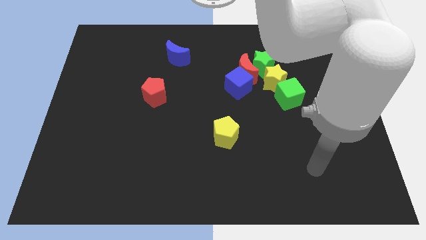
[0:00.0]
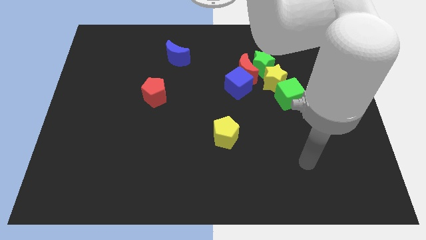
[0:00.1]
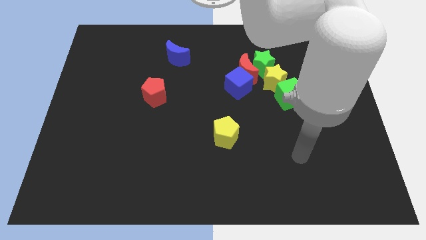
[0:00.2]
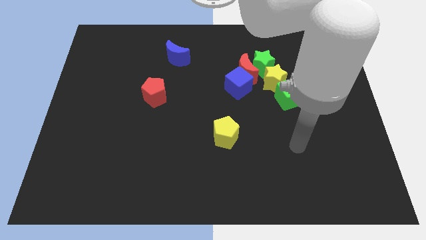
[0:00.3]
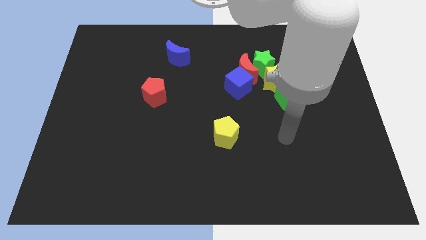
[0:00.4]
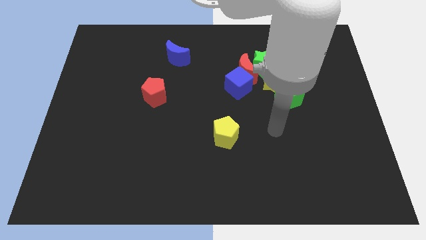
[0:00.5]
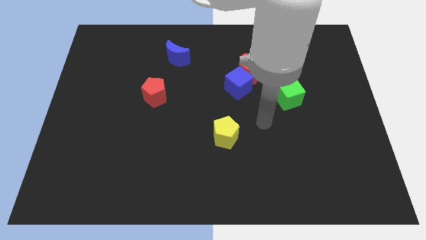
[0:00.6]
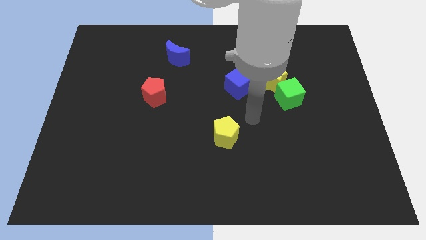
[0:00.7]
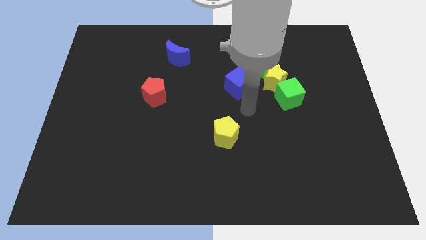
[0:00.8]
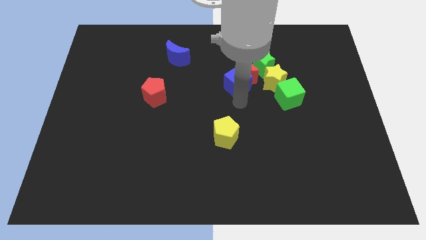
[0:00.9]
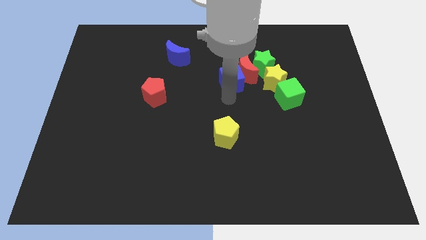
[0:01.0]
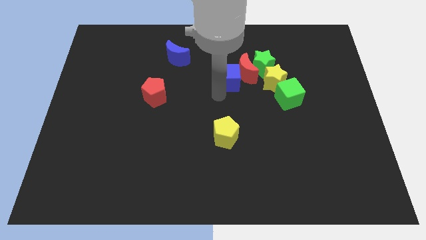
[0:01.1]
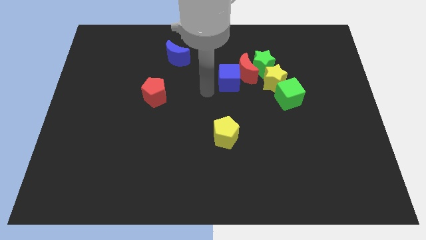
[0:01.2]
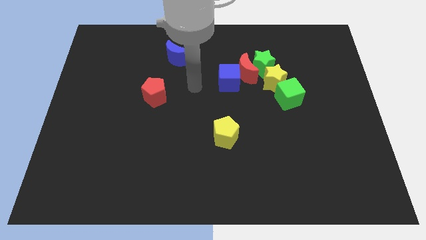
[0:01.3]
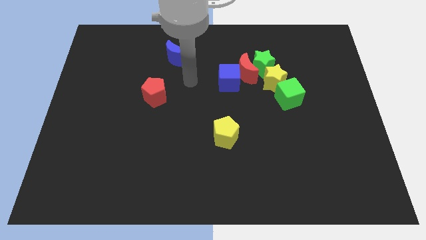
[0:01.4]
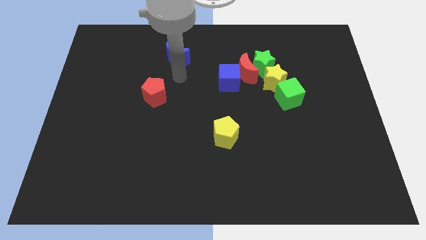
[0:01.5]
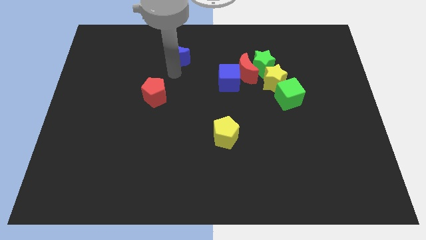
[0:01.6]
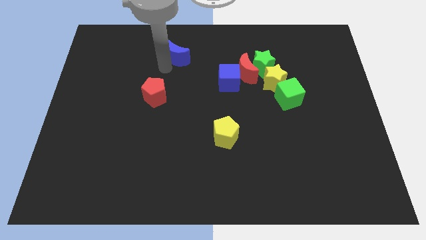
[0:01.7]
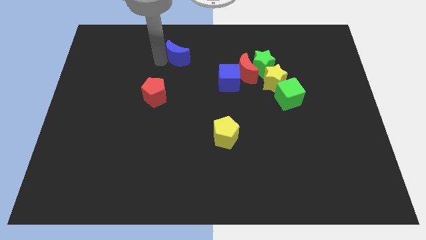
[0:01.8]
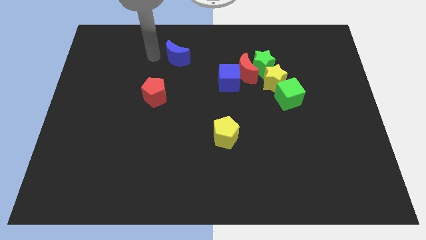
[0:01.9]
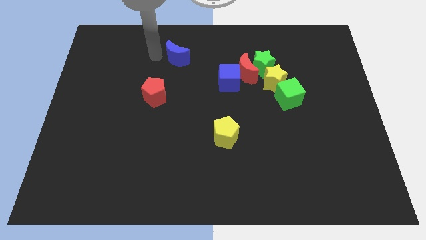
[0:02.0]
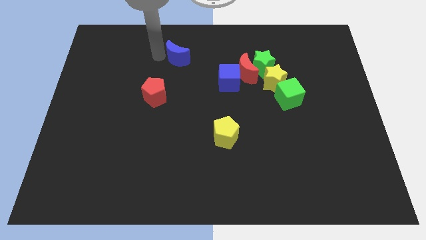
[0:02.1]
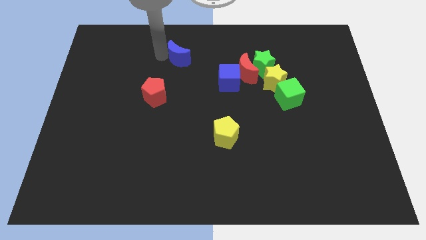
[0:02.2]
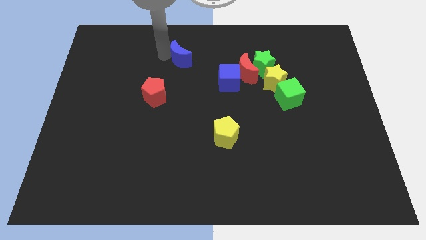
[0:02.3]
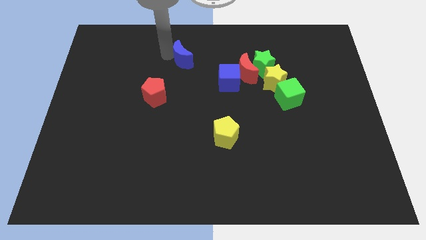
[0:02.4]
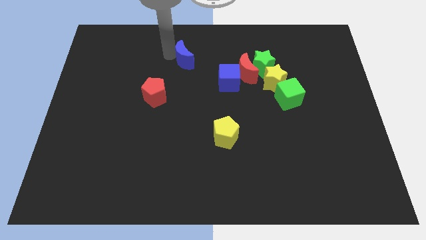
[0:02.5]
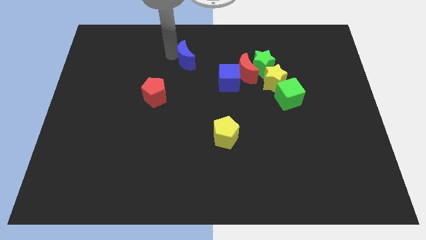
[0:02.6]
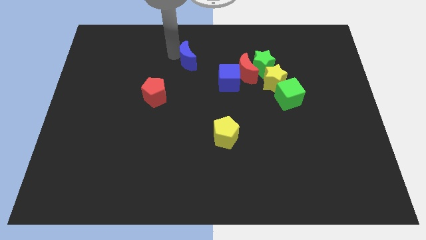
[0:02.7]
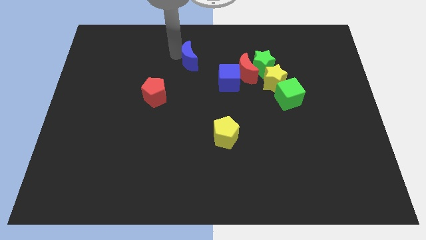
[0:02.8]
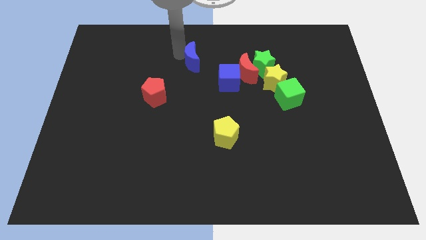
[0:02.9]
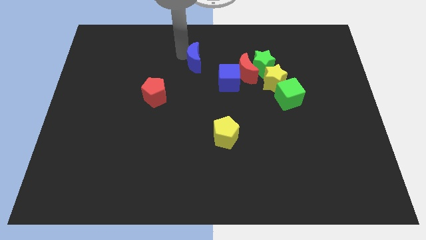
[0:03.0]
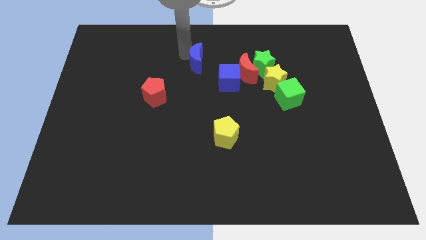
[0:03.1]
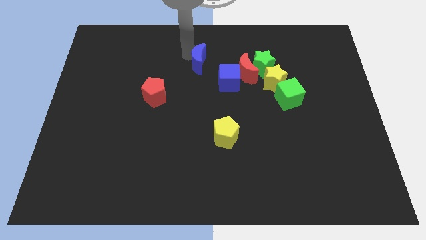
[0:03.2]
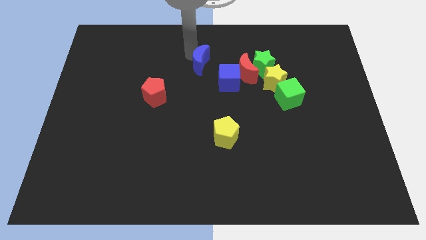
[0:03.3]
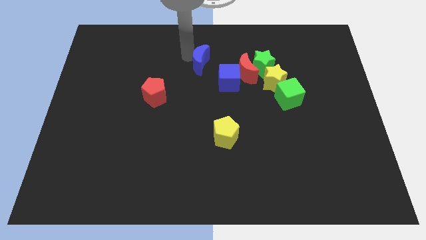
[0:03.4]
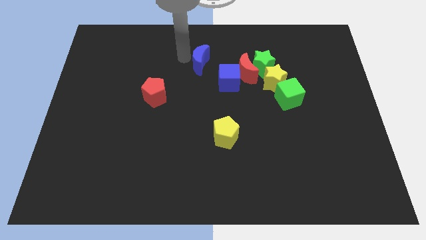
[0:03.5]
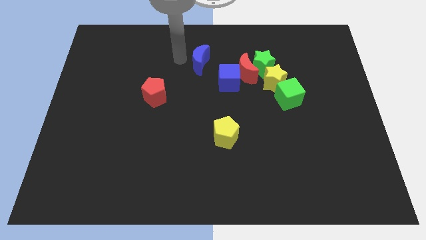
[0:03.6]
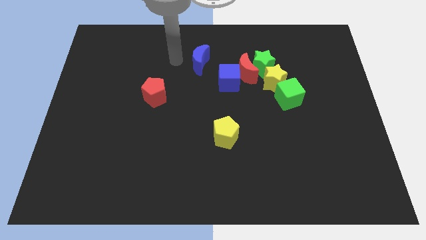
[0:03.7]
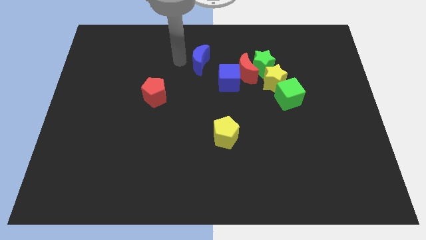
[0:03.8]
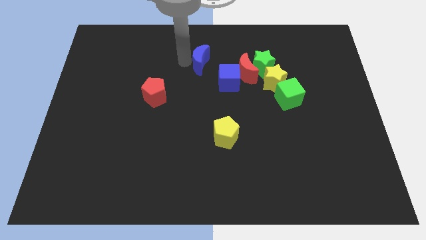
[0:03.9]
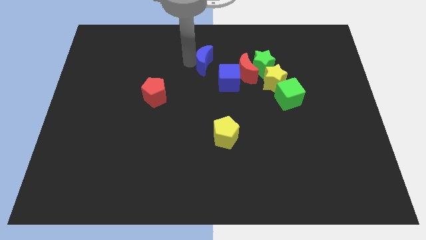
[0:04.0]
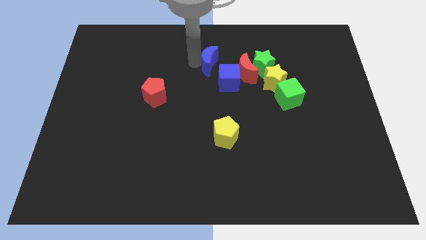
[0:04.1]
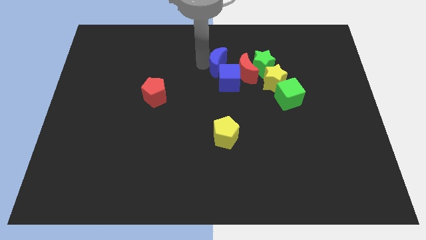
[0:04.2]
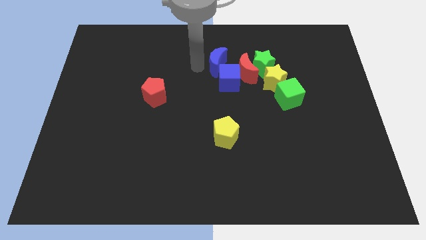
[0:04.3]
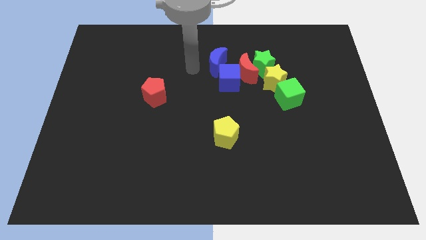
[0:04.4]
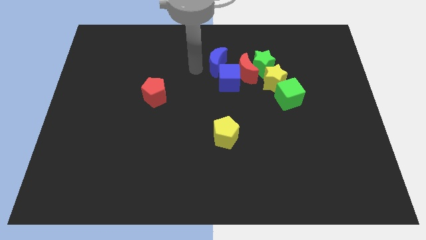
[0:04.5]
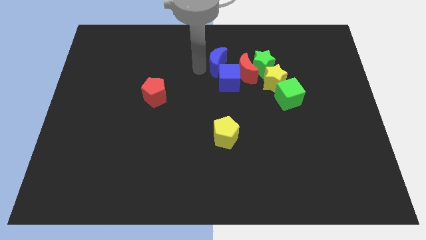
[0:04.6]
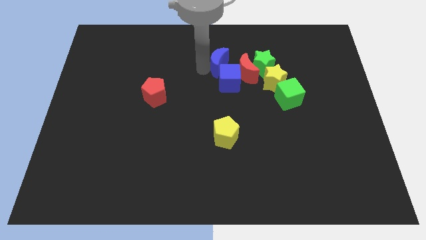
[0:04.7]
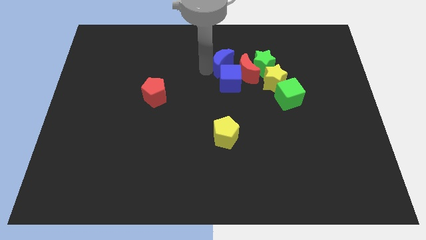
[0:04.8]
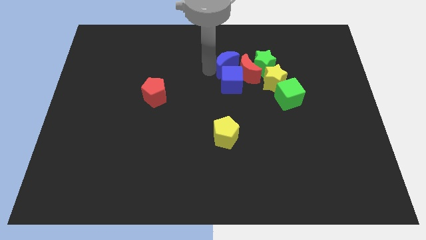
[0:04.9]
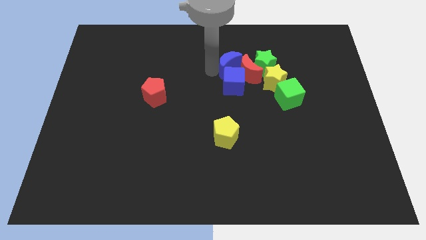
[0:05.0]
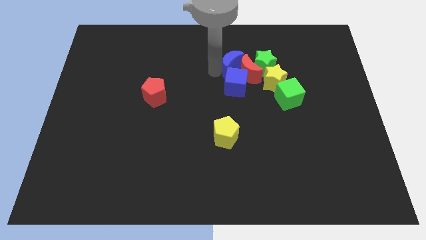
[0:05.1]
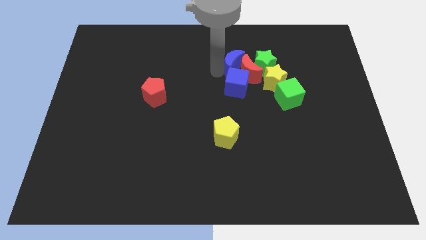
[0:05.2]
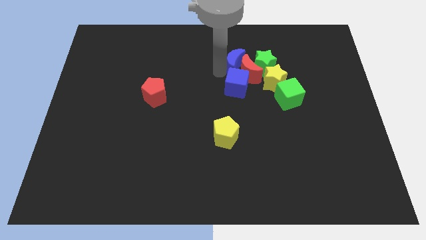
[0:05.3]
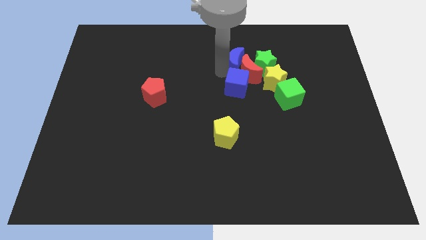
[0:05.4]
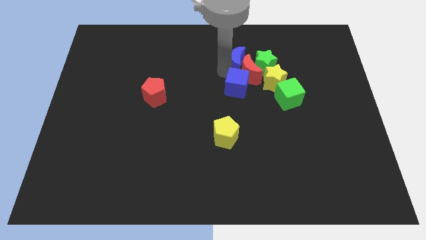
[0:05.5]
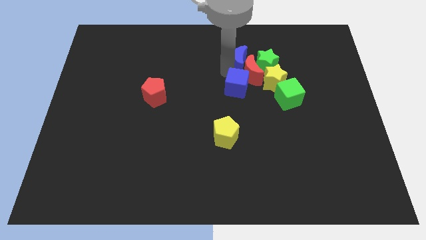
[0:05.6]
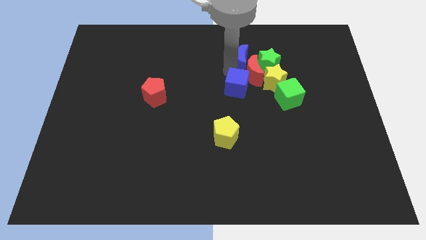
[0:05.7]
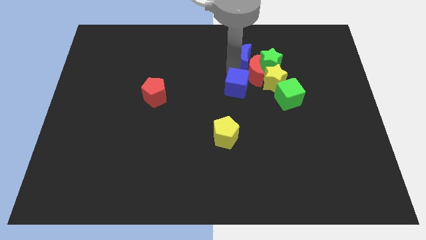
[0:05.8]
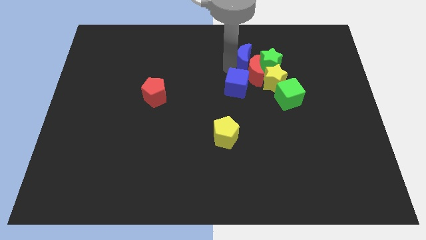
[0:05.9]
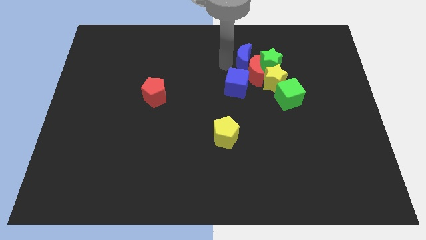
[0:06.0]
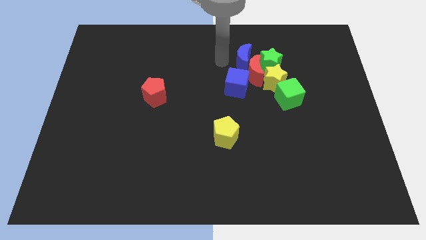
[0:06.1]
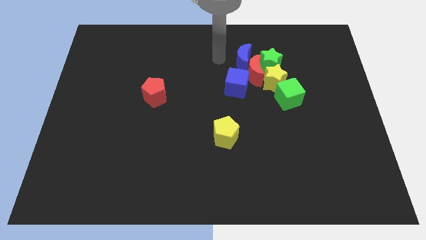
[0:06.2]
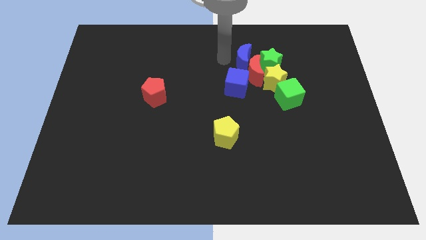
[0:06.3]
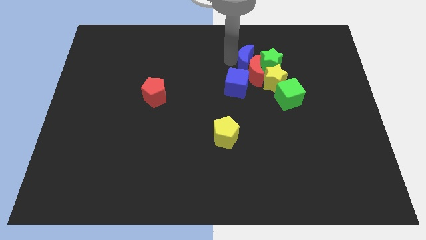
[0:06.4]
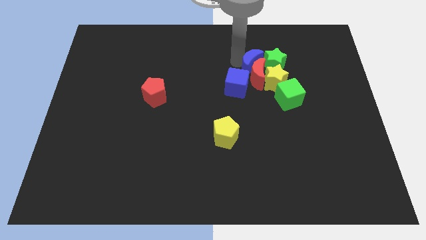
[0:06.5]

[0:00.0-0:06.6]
slide the blue moon to the green star
